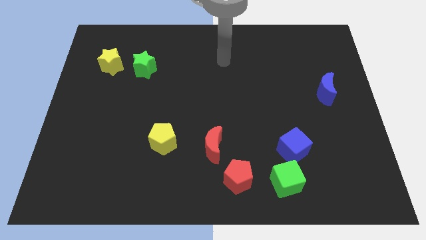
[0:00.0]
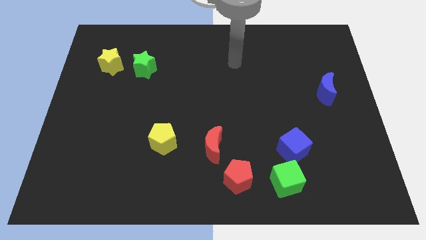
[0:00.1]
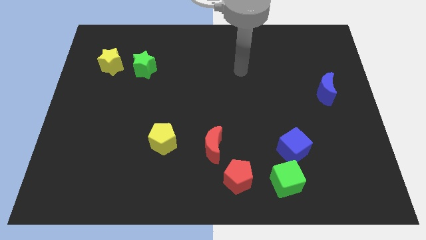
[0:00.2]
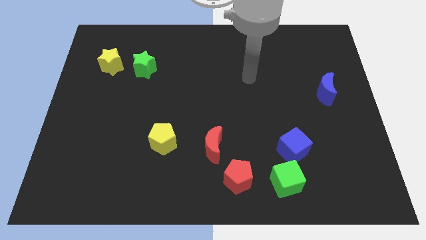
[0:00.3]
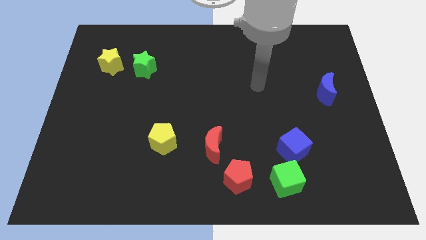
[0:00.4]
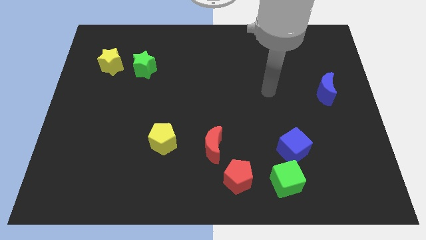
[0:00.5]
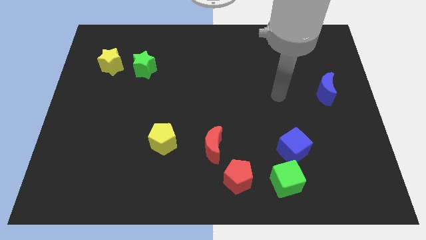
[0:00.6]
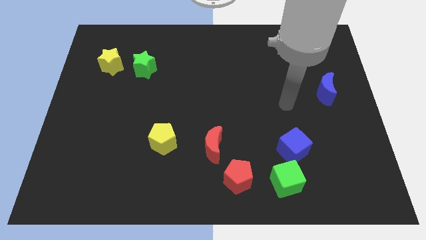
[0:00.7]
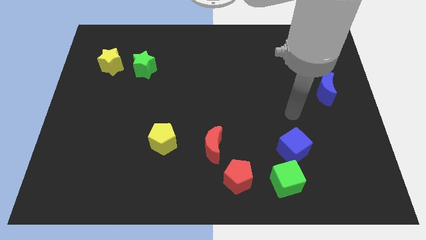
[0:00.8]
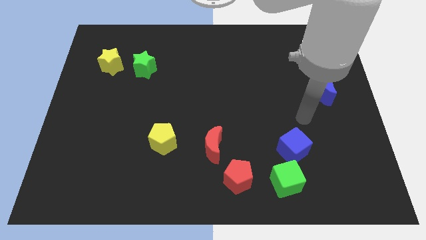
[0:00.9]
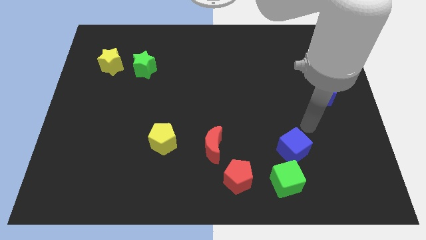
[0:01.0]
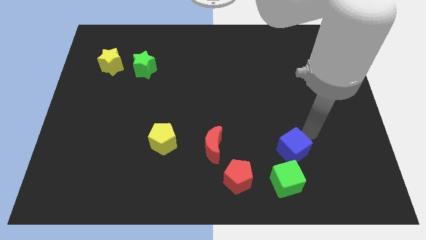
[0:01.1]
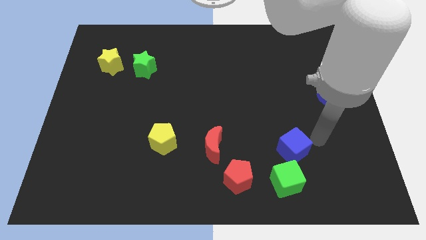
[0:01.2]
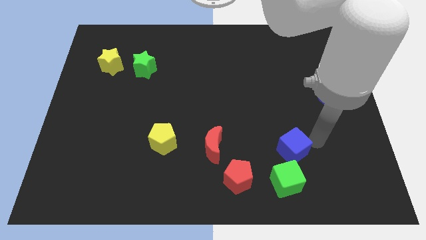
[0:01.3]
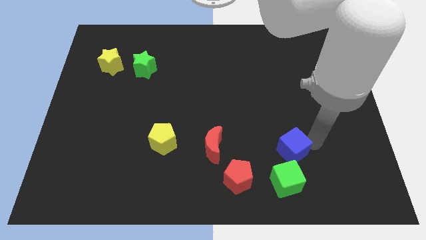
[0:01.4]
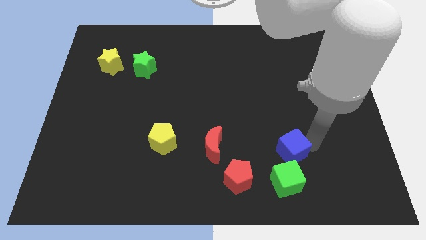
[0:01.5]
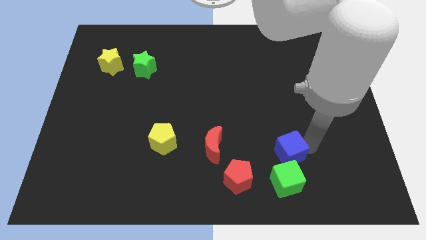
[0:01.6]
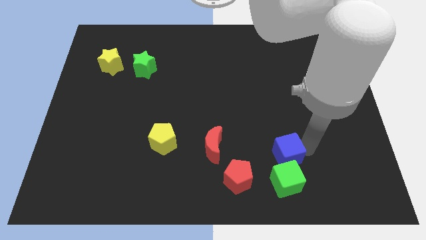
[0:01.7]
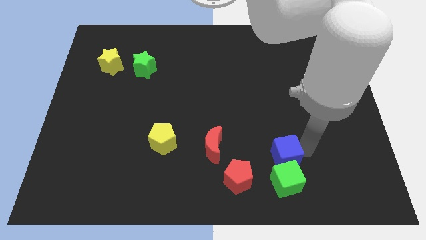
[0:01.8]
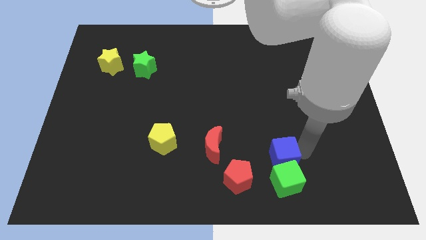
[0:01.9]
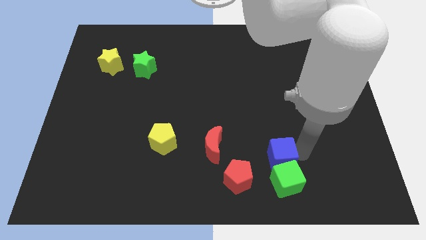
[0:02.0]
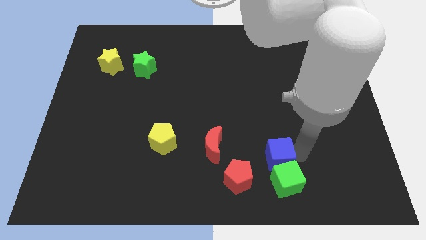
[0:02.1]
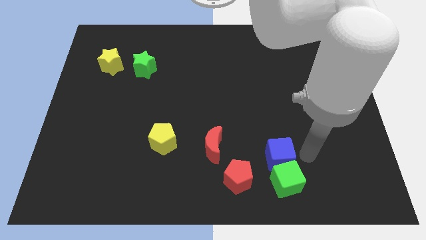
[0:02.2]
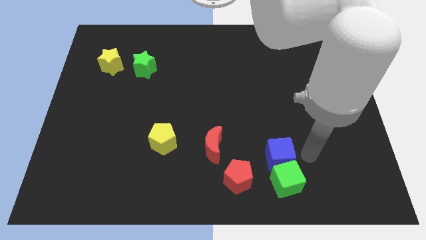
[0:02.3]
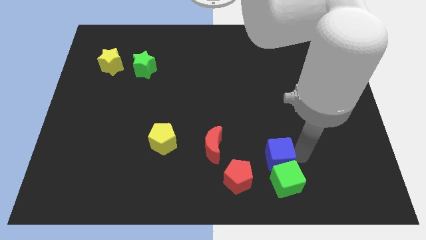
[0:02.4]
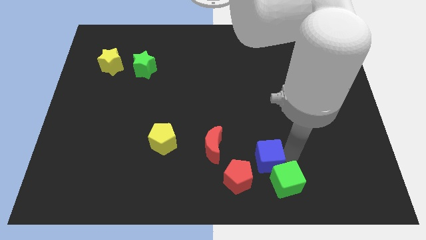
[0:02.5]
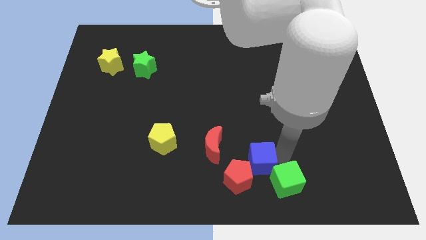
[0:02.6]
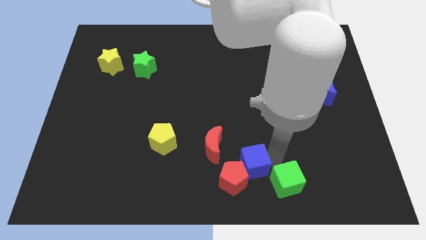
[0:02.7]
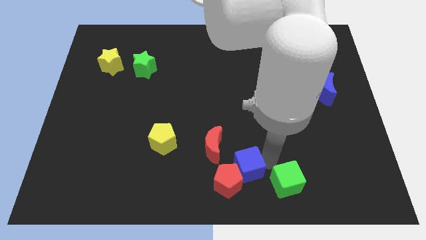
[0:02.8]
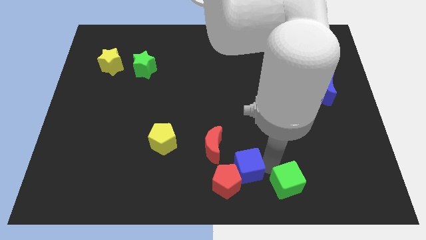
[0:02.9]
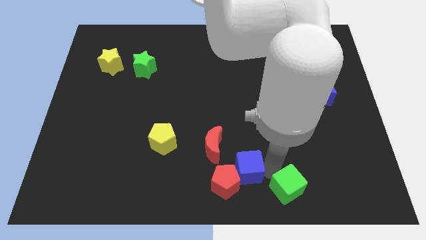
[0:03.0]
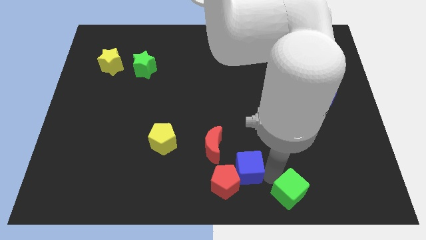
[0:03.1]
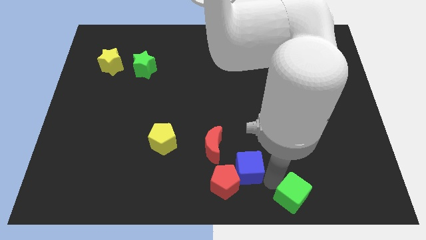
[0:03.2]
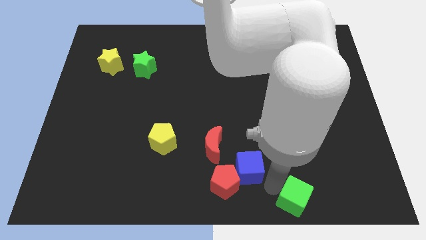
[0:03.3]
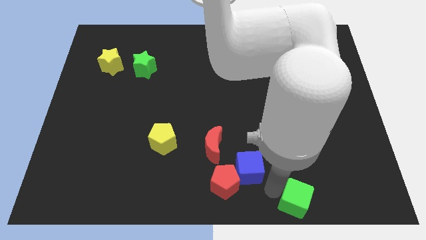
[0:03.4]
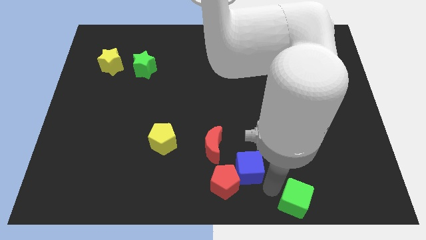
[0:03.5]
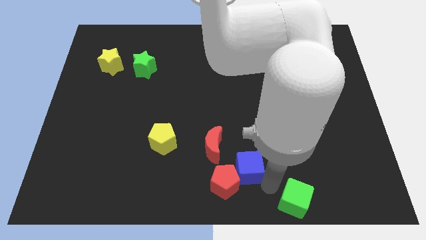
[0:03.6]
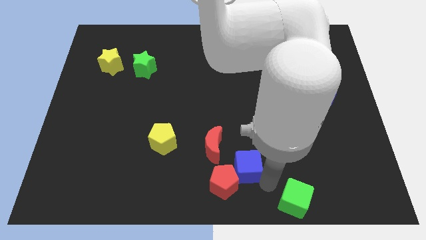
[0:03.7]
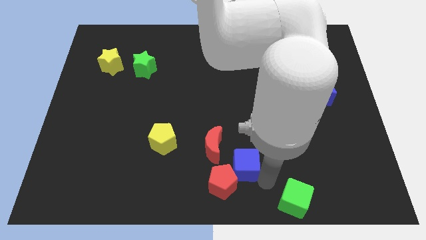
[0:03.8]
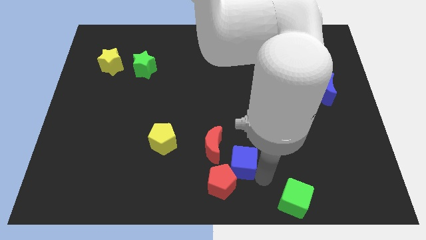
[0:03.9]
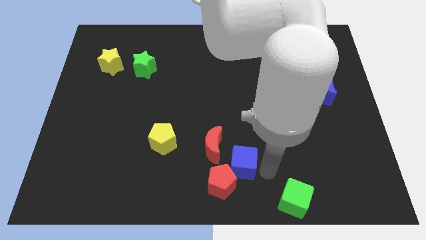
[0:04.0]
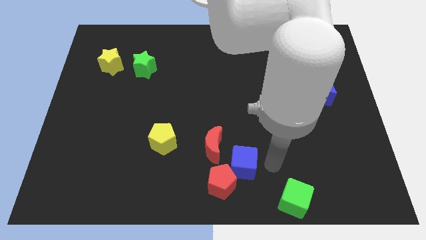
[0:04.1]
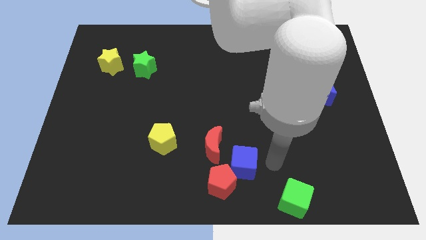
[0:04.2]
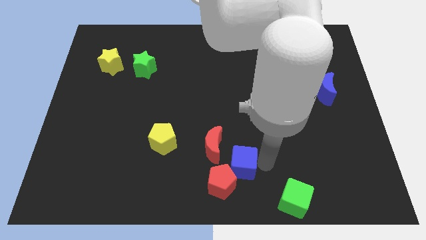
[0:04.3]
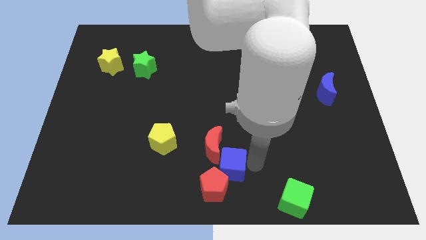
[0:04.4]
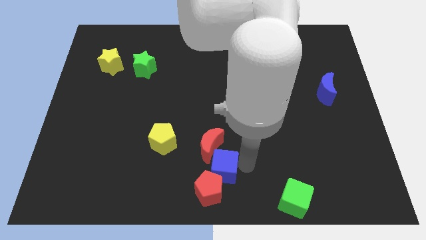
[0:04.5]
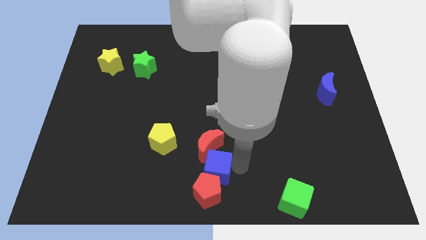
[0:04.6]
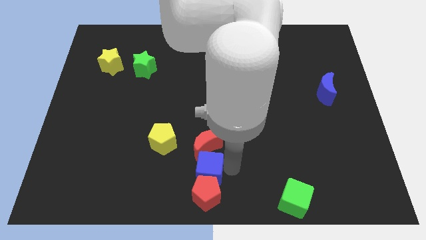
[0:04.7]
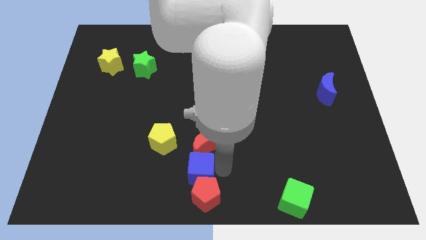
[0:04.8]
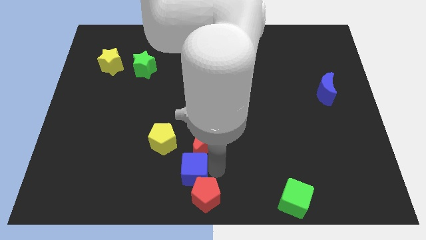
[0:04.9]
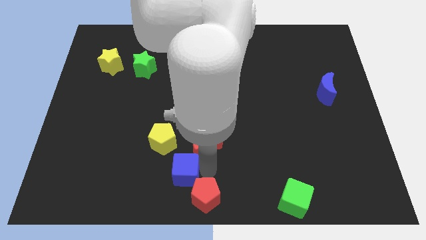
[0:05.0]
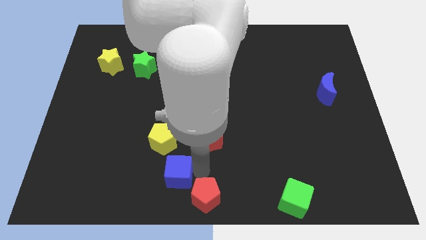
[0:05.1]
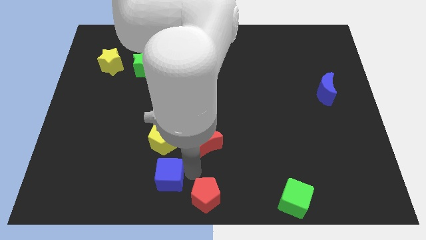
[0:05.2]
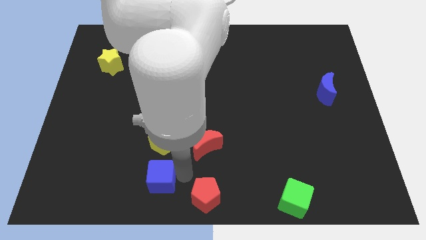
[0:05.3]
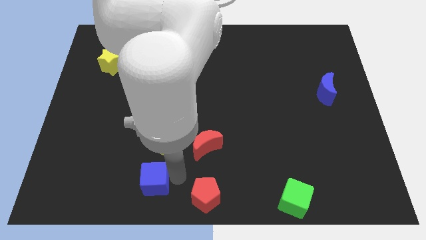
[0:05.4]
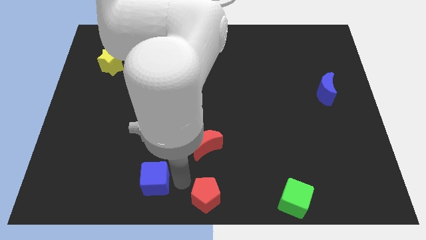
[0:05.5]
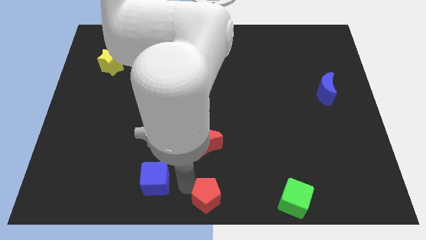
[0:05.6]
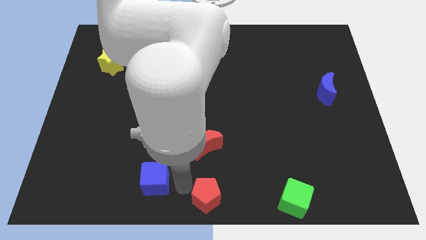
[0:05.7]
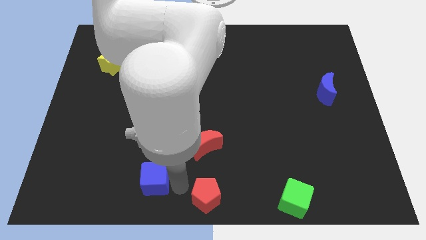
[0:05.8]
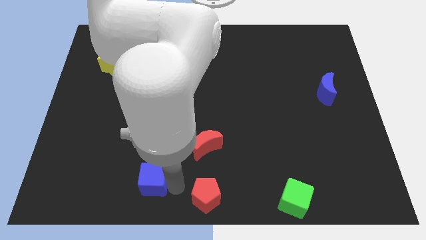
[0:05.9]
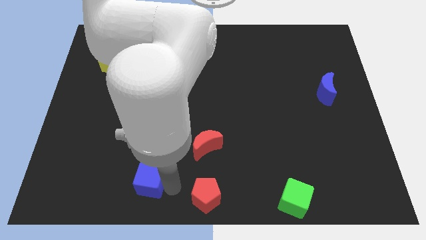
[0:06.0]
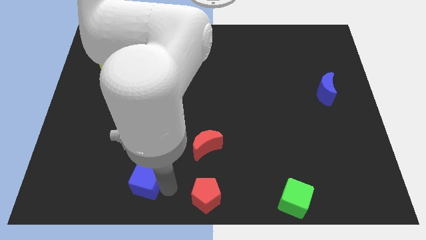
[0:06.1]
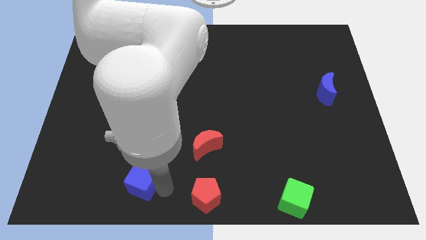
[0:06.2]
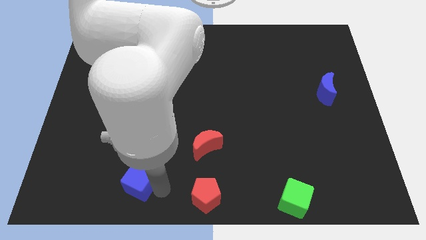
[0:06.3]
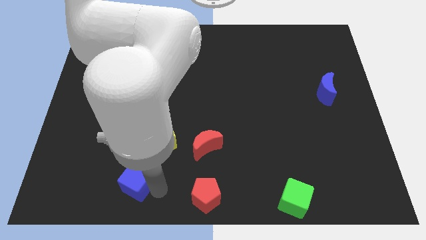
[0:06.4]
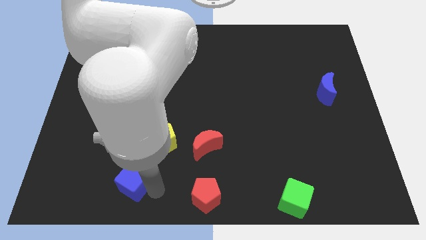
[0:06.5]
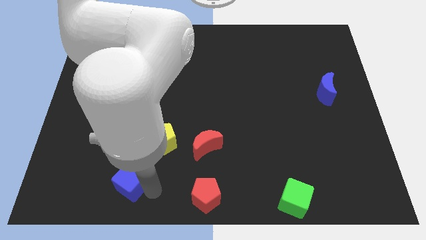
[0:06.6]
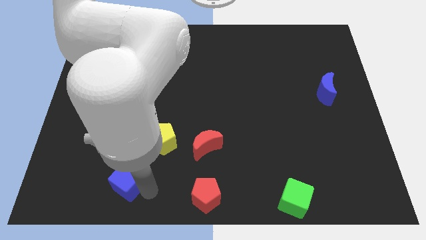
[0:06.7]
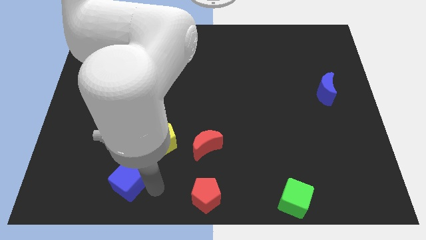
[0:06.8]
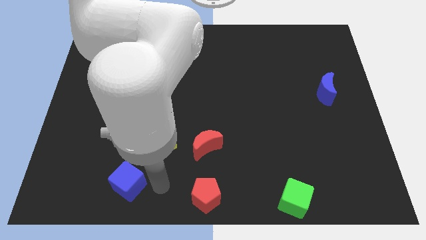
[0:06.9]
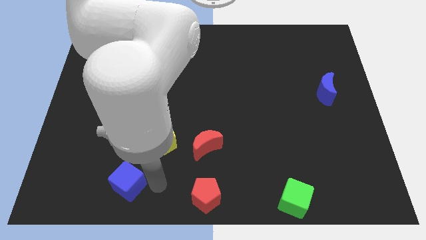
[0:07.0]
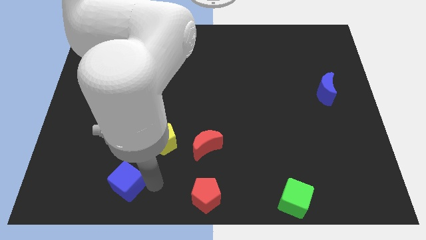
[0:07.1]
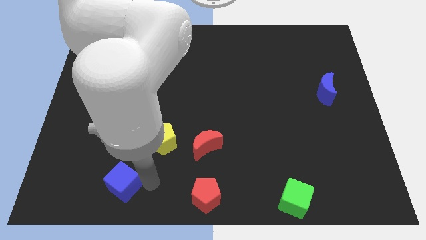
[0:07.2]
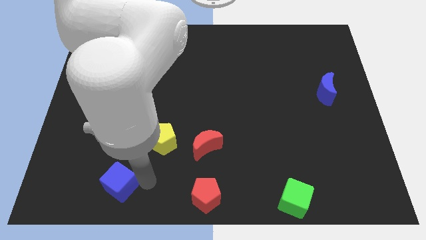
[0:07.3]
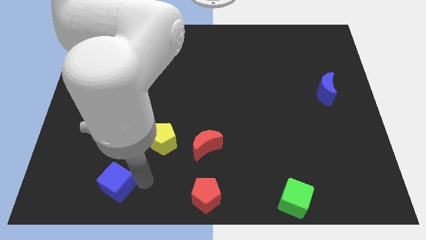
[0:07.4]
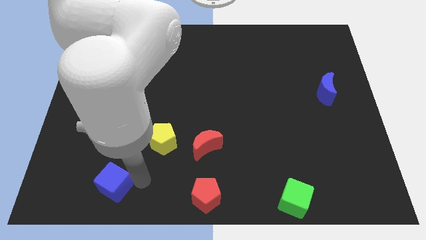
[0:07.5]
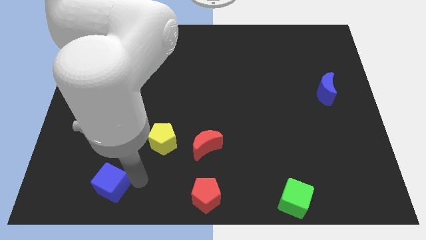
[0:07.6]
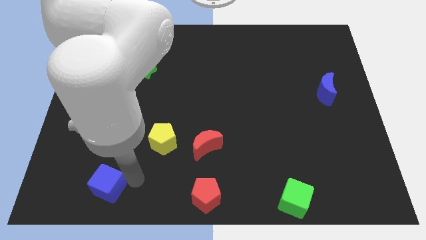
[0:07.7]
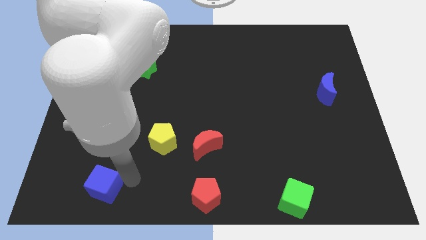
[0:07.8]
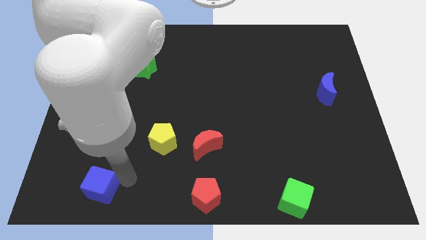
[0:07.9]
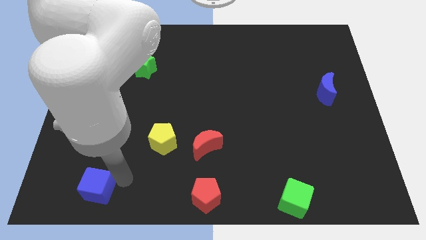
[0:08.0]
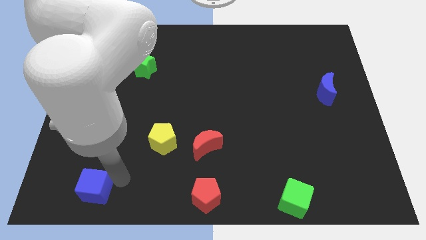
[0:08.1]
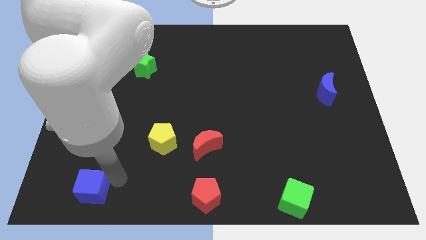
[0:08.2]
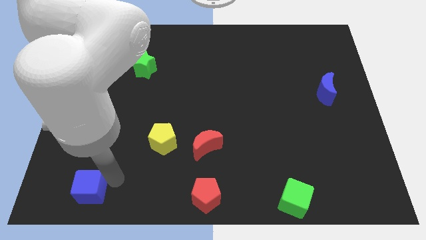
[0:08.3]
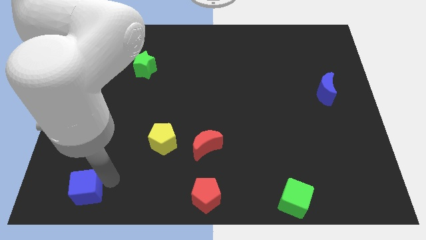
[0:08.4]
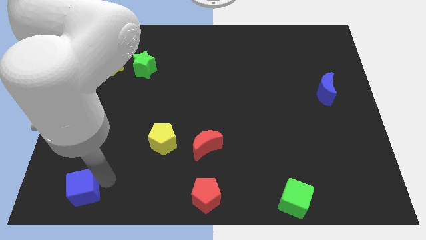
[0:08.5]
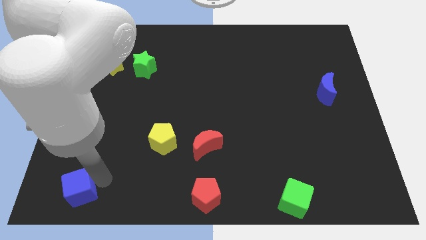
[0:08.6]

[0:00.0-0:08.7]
push the blue cube to the lower left corner
